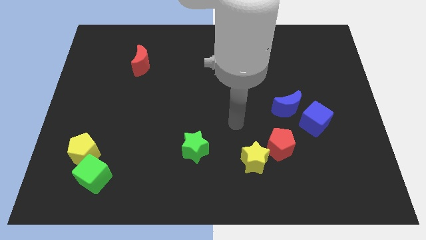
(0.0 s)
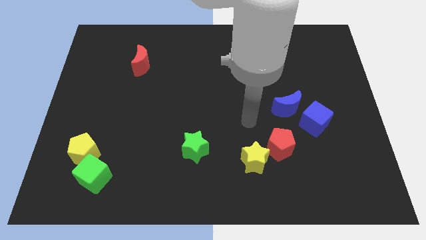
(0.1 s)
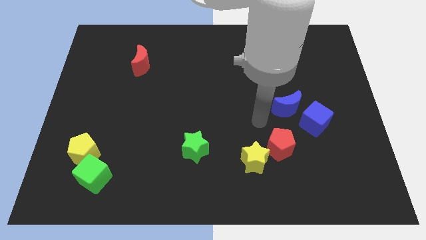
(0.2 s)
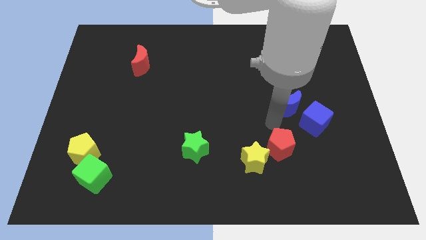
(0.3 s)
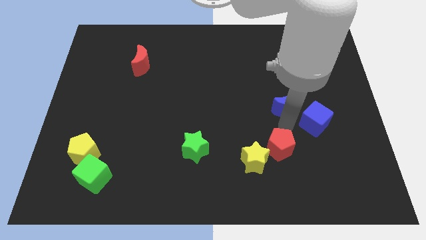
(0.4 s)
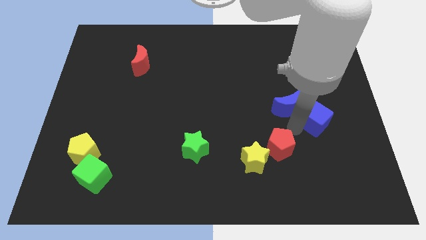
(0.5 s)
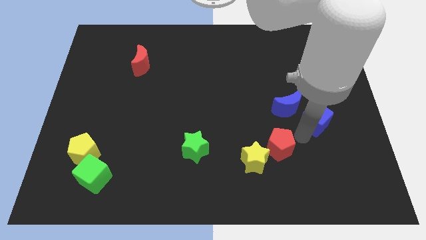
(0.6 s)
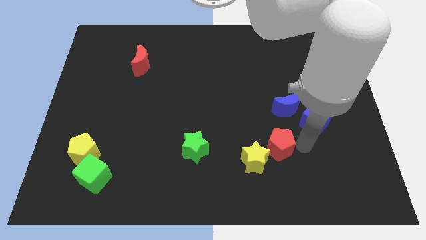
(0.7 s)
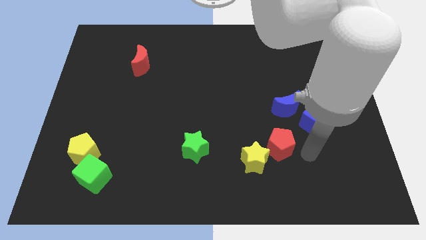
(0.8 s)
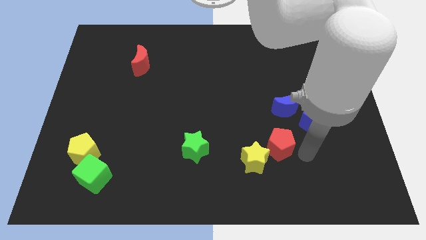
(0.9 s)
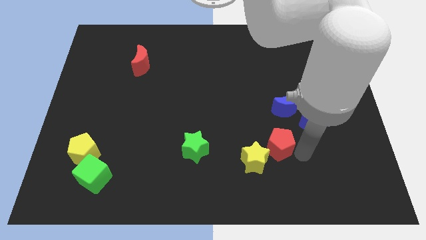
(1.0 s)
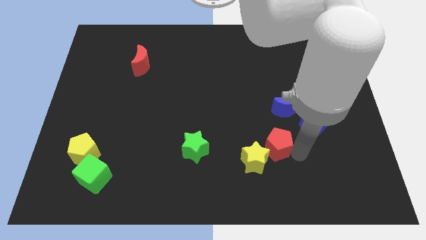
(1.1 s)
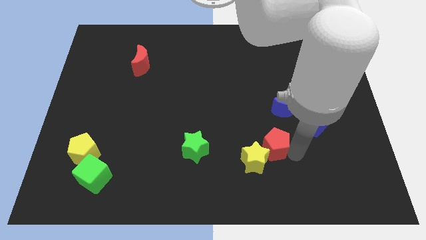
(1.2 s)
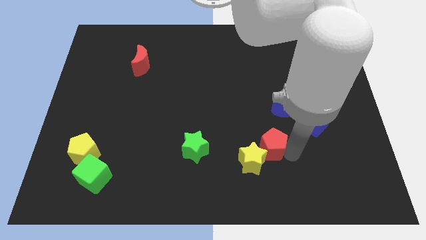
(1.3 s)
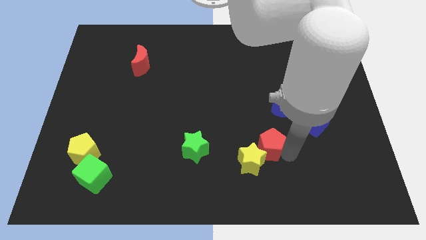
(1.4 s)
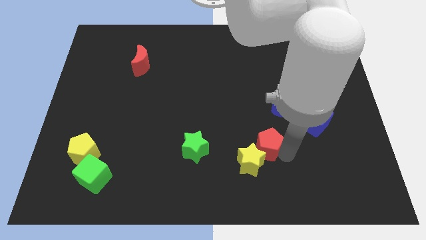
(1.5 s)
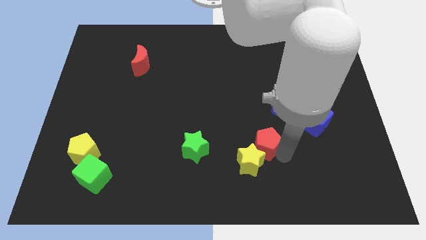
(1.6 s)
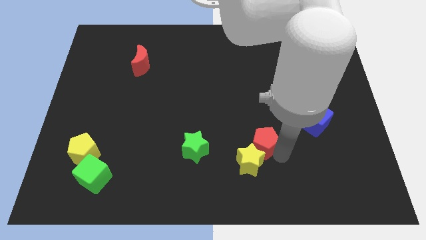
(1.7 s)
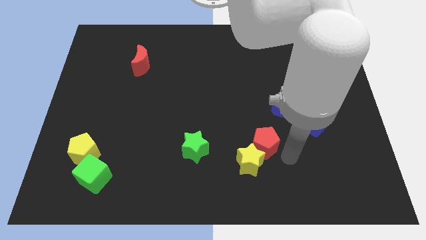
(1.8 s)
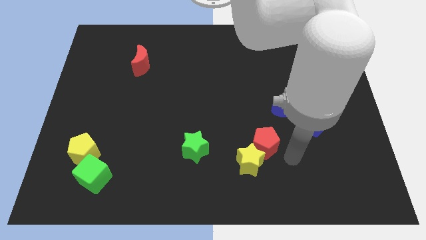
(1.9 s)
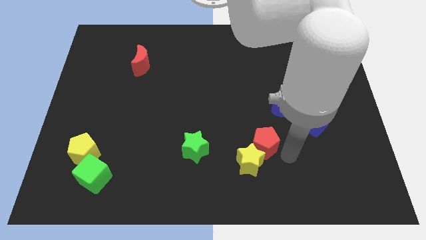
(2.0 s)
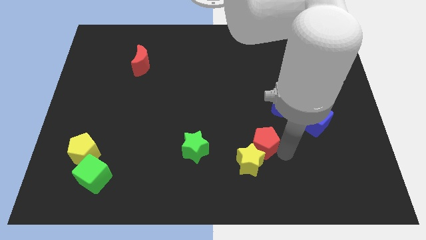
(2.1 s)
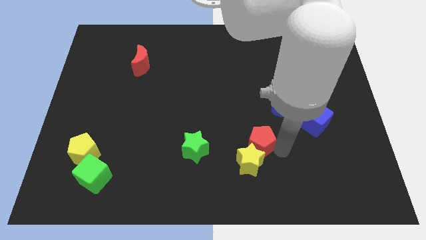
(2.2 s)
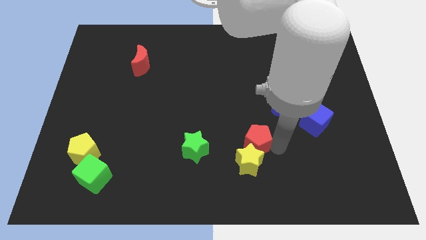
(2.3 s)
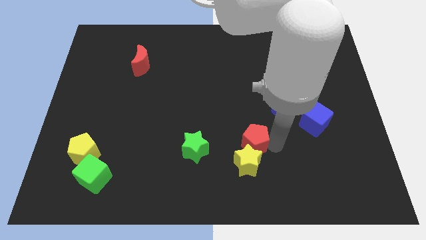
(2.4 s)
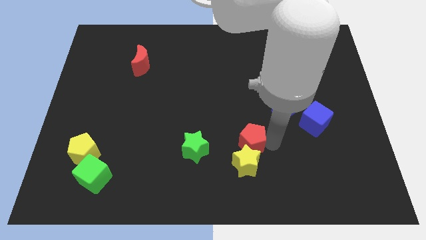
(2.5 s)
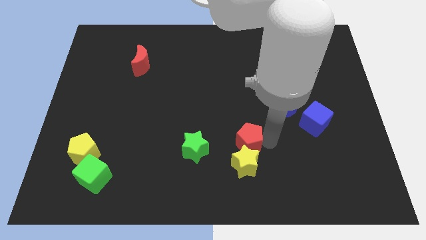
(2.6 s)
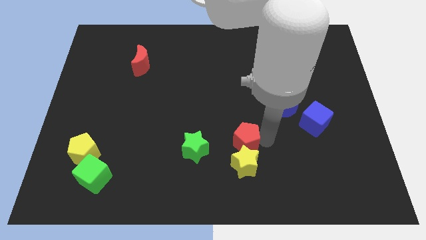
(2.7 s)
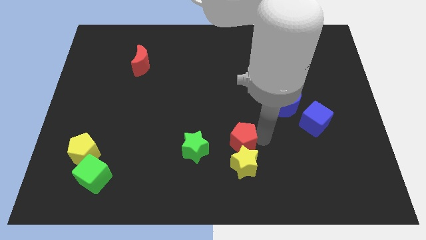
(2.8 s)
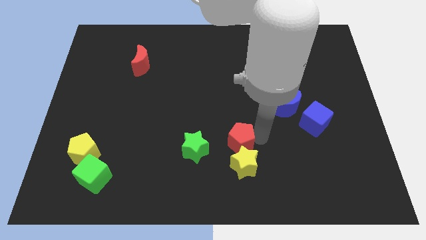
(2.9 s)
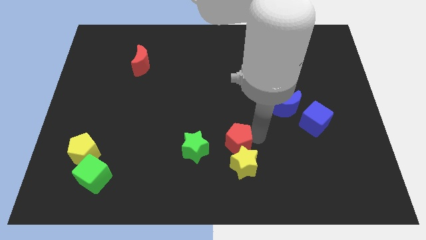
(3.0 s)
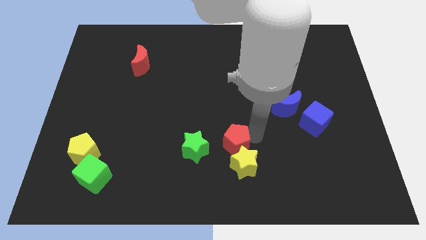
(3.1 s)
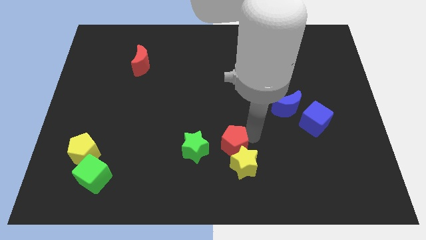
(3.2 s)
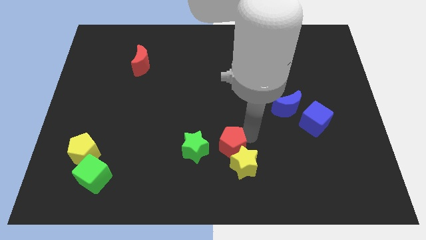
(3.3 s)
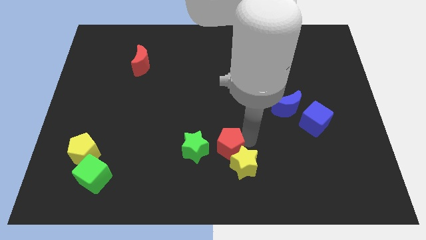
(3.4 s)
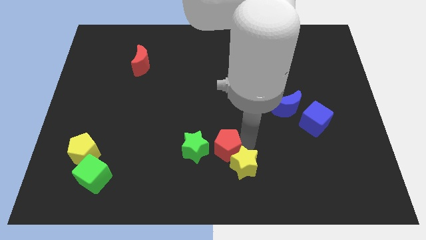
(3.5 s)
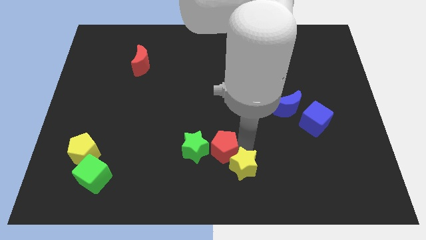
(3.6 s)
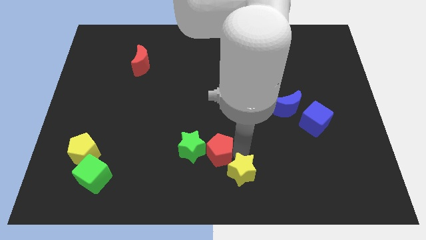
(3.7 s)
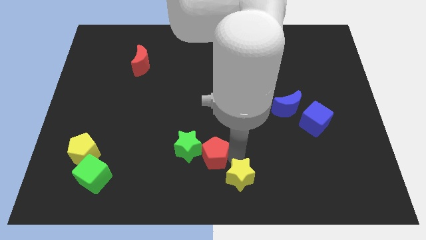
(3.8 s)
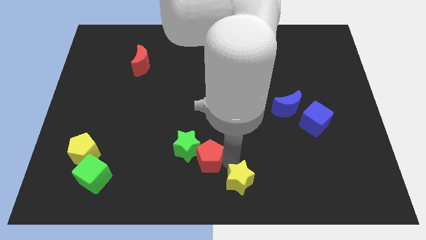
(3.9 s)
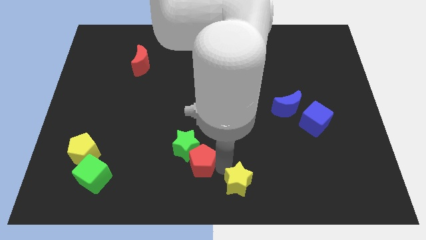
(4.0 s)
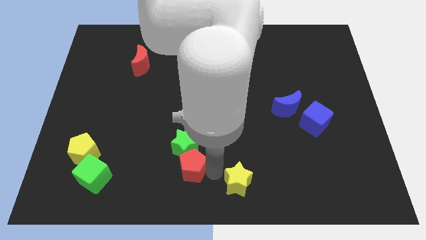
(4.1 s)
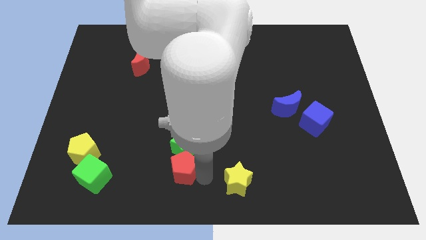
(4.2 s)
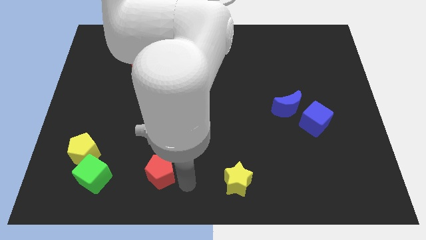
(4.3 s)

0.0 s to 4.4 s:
slide the red pentagon to the left

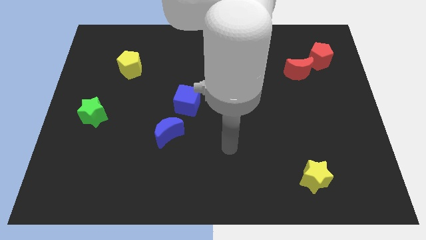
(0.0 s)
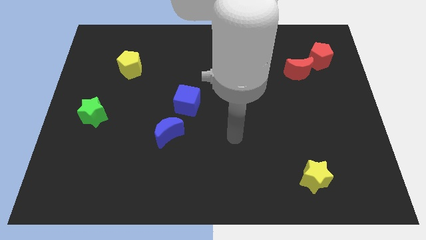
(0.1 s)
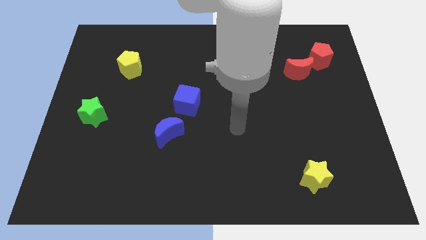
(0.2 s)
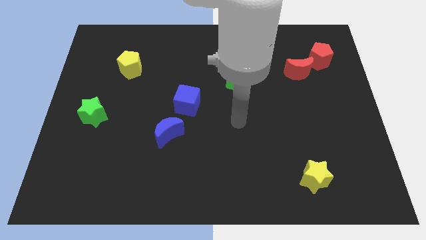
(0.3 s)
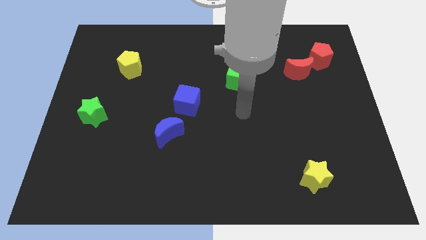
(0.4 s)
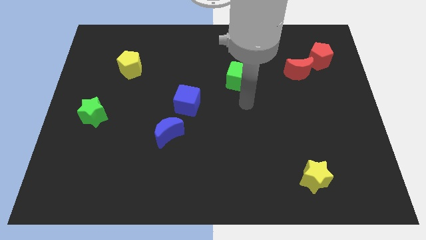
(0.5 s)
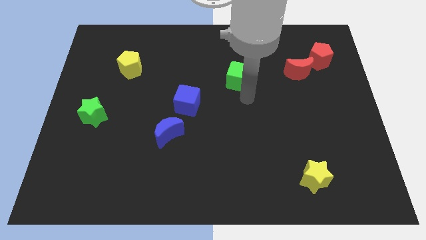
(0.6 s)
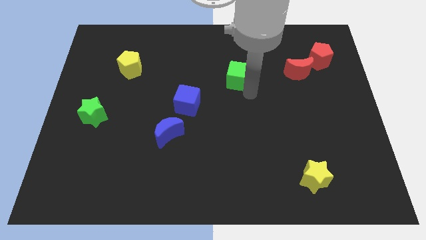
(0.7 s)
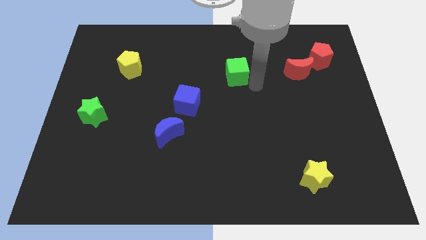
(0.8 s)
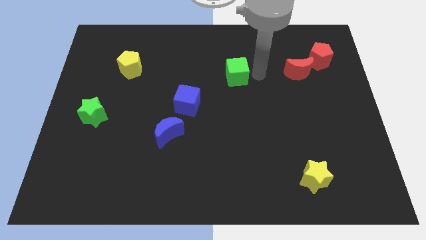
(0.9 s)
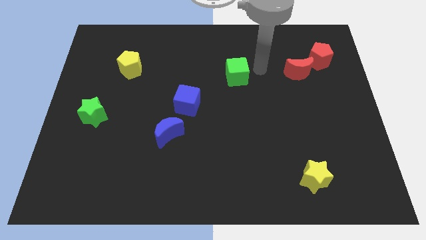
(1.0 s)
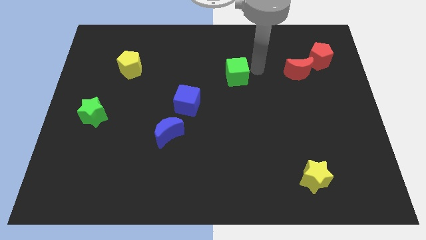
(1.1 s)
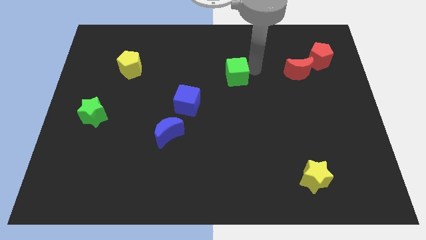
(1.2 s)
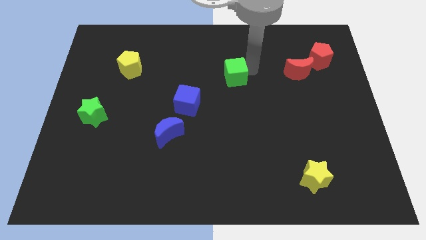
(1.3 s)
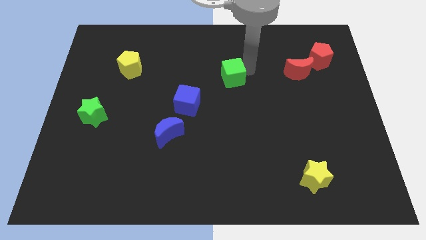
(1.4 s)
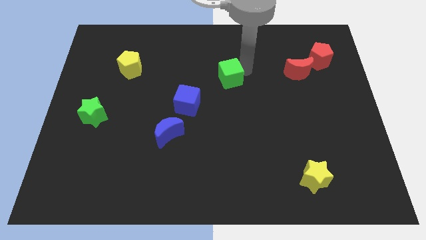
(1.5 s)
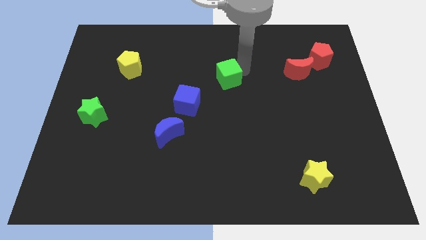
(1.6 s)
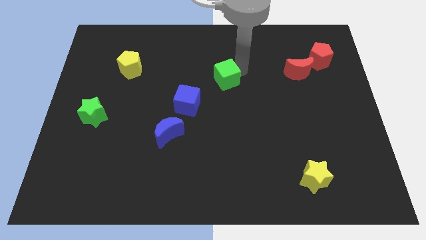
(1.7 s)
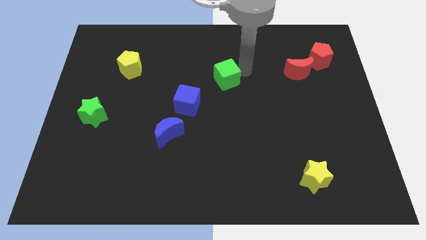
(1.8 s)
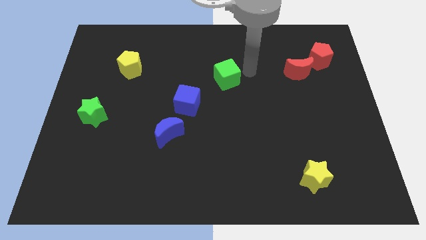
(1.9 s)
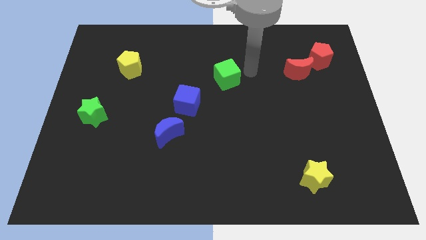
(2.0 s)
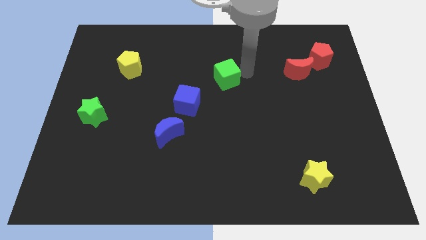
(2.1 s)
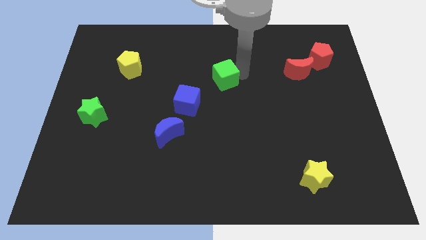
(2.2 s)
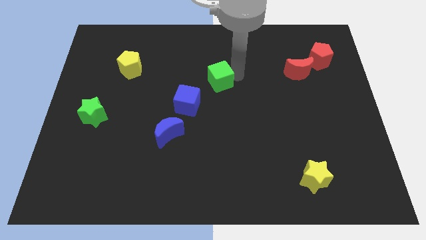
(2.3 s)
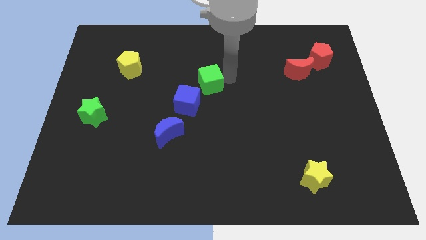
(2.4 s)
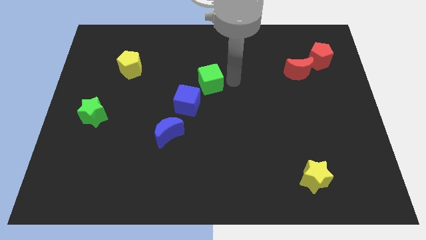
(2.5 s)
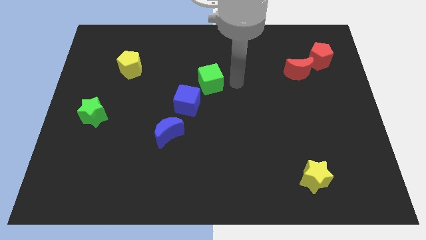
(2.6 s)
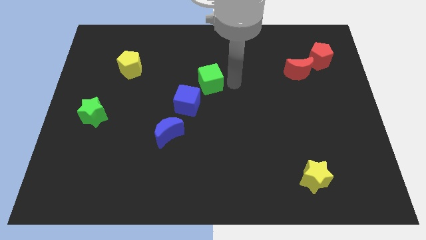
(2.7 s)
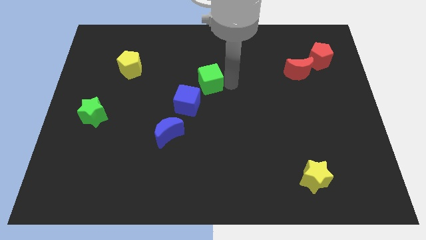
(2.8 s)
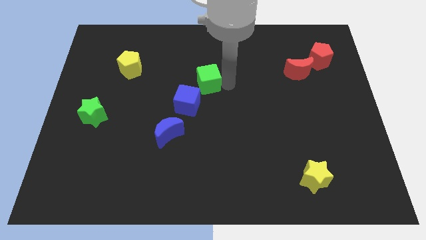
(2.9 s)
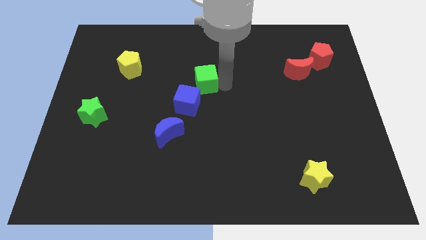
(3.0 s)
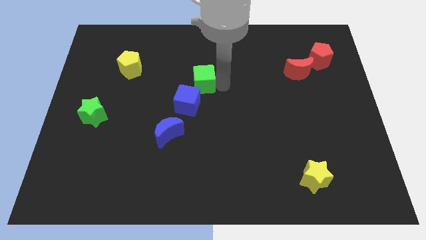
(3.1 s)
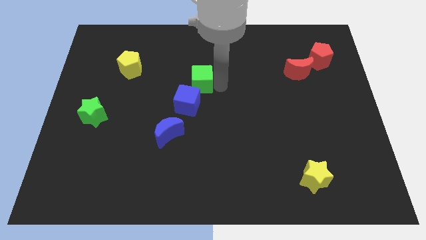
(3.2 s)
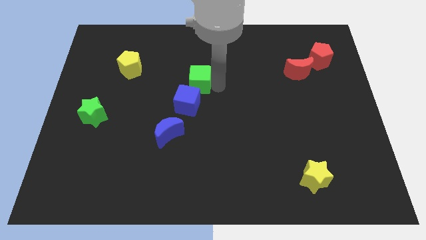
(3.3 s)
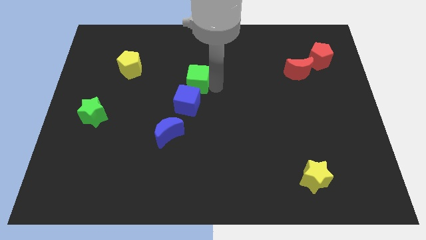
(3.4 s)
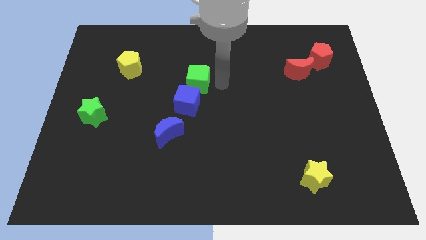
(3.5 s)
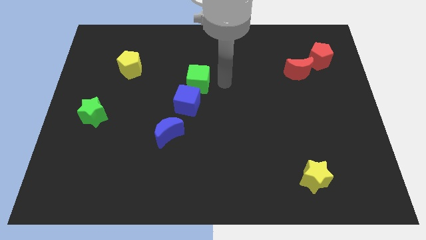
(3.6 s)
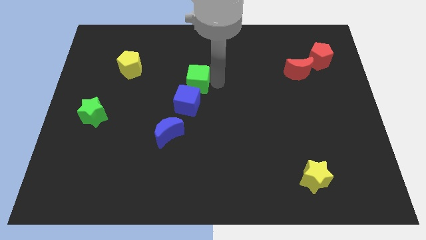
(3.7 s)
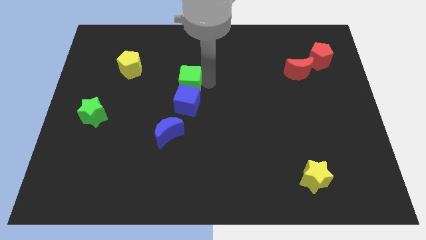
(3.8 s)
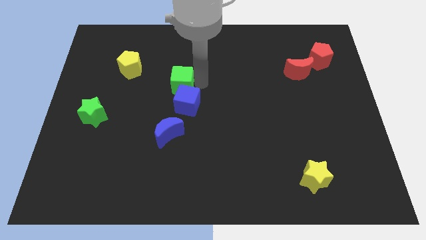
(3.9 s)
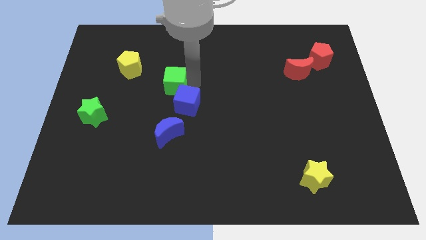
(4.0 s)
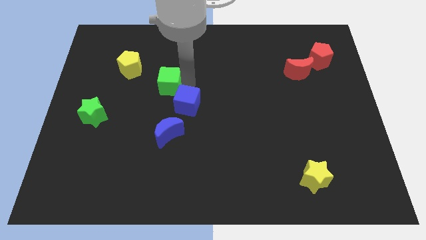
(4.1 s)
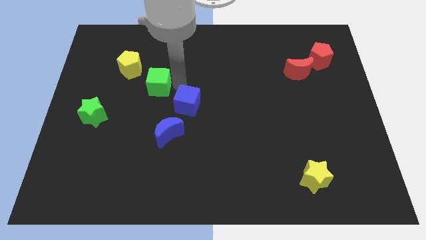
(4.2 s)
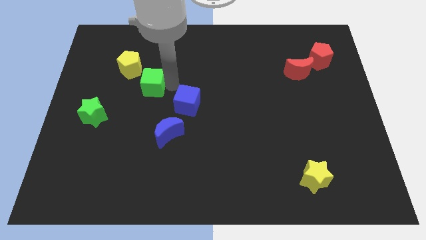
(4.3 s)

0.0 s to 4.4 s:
slide the green cube left
